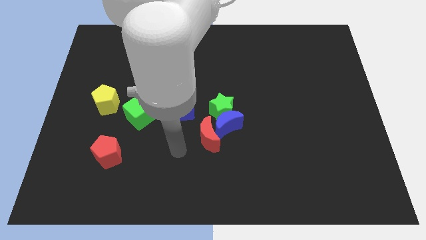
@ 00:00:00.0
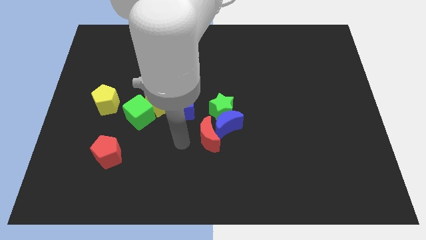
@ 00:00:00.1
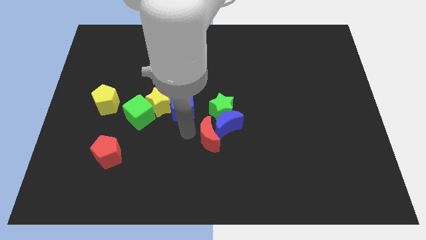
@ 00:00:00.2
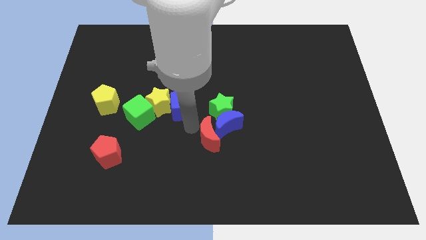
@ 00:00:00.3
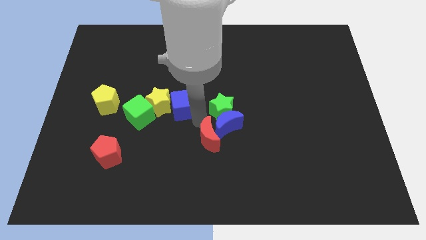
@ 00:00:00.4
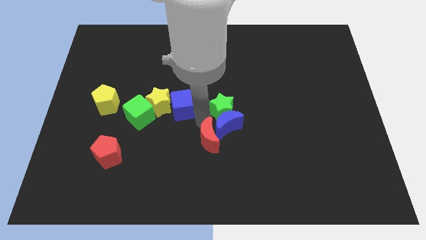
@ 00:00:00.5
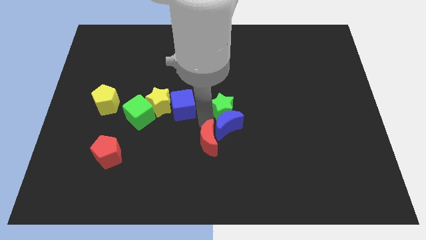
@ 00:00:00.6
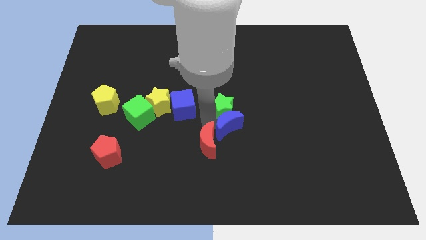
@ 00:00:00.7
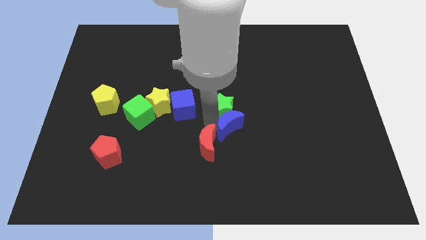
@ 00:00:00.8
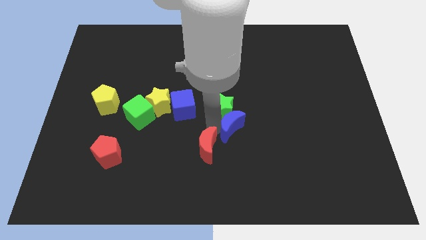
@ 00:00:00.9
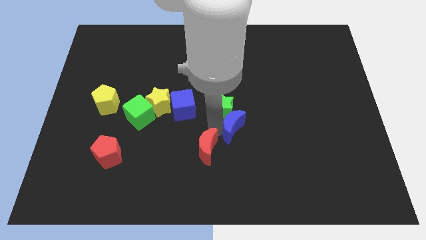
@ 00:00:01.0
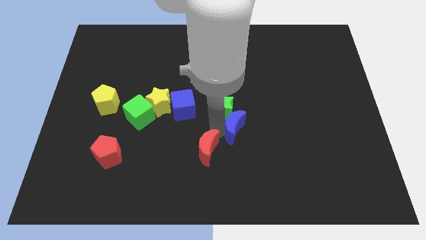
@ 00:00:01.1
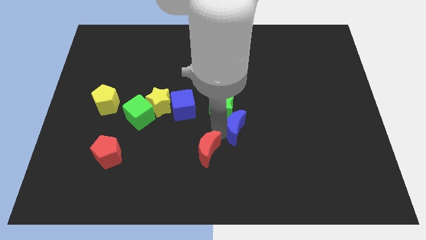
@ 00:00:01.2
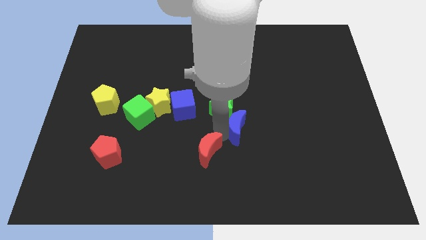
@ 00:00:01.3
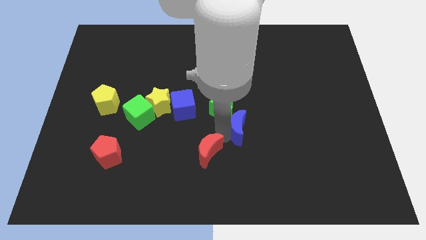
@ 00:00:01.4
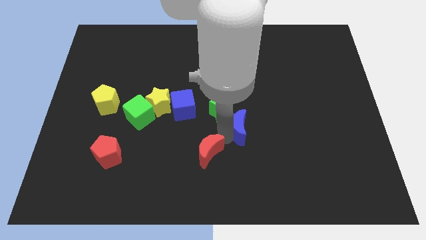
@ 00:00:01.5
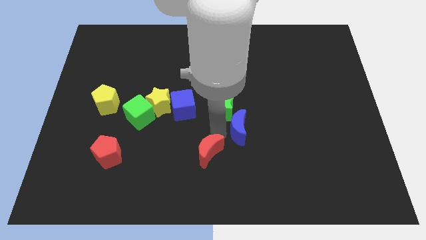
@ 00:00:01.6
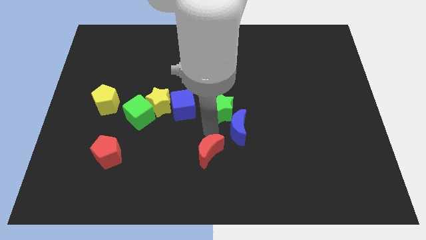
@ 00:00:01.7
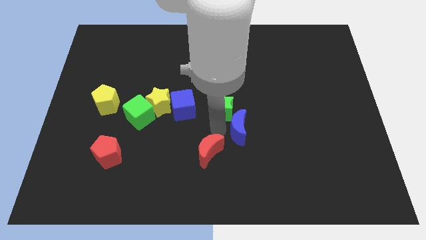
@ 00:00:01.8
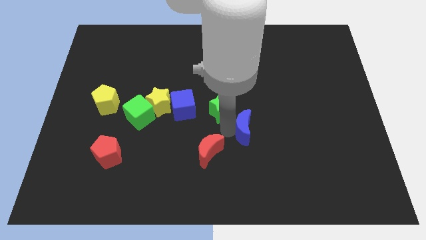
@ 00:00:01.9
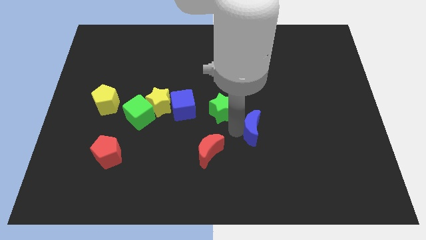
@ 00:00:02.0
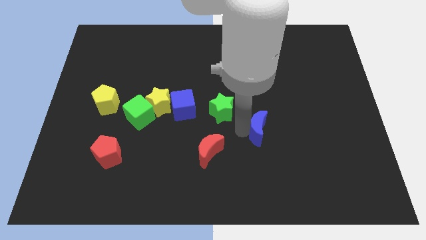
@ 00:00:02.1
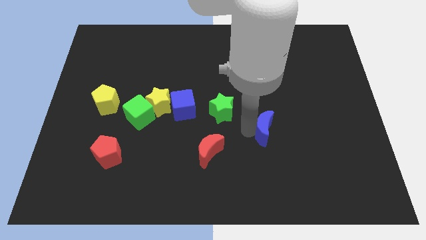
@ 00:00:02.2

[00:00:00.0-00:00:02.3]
move the blue moon away from the green star and red moon

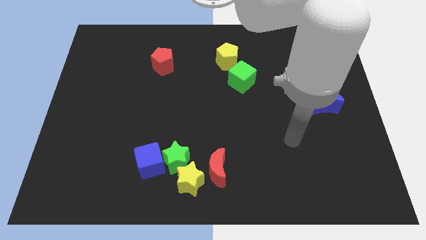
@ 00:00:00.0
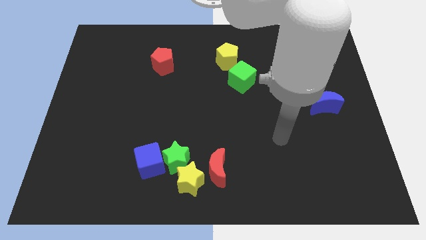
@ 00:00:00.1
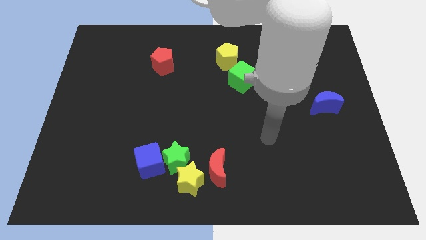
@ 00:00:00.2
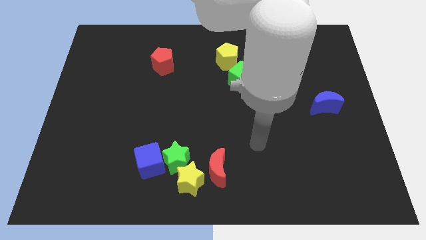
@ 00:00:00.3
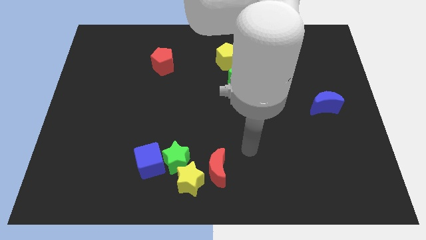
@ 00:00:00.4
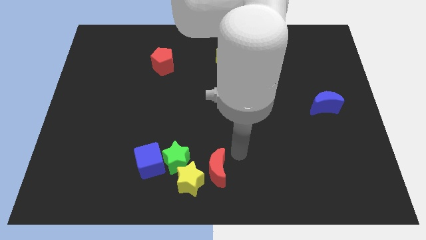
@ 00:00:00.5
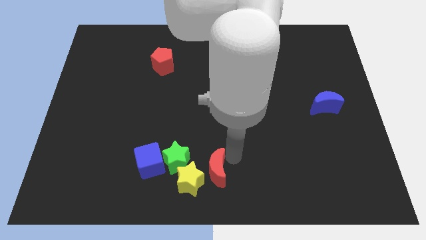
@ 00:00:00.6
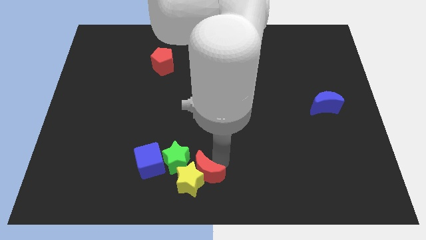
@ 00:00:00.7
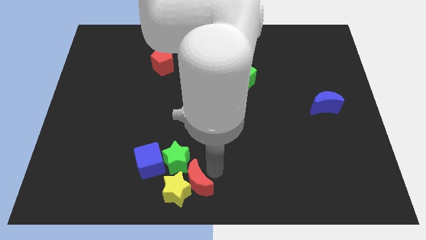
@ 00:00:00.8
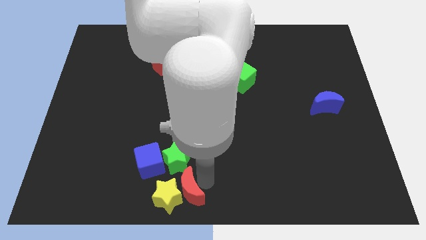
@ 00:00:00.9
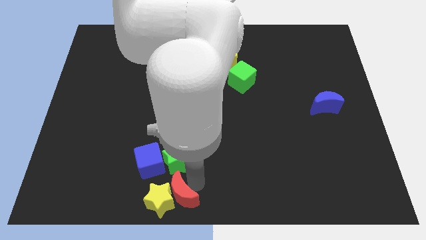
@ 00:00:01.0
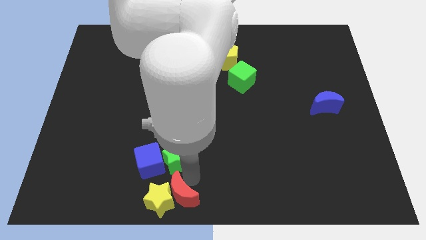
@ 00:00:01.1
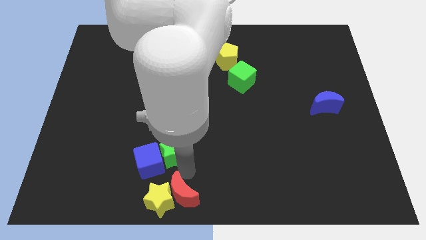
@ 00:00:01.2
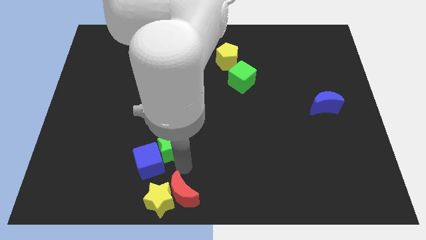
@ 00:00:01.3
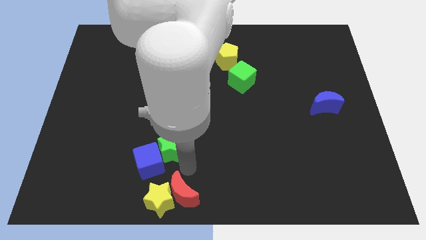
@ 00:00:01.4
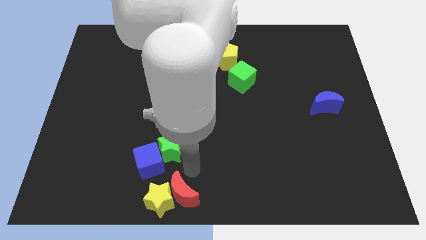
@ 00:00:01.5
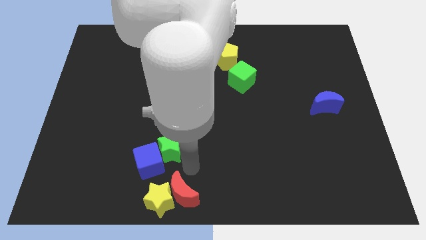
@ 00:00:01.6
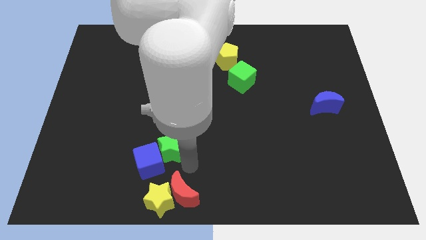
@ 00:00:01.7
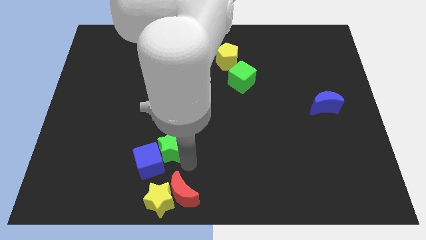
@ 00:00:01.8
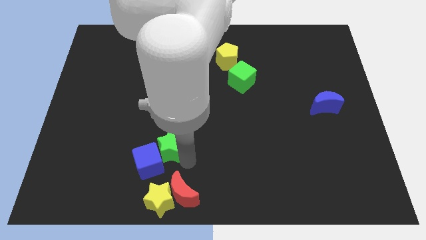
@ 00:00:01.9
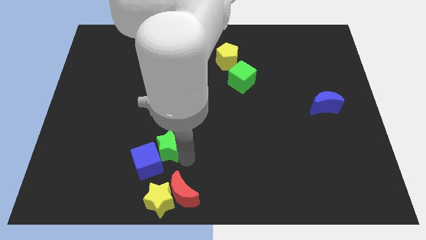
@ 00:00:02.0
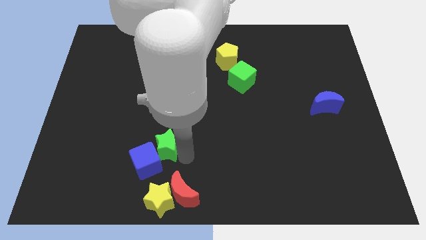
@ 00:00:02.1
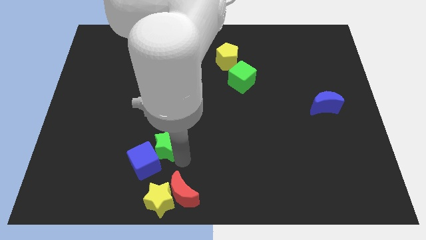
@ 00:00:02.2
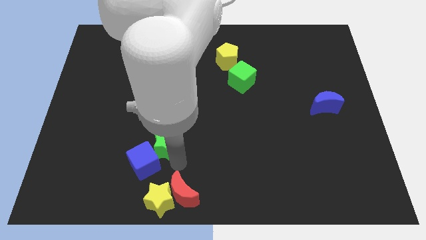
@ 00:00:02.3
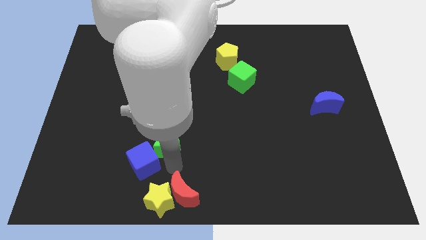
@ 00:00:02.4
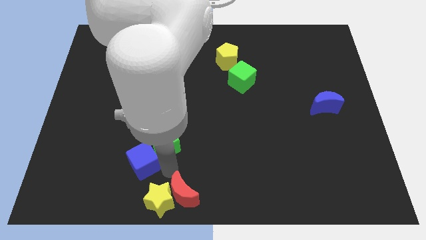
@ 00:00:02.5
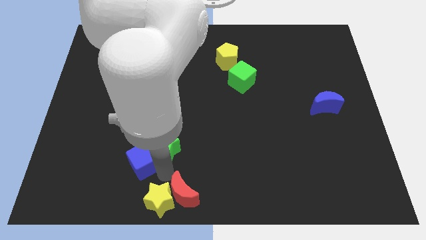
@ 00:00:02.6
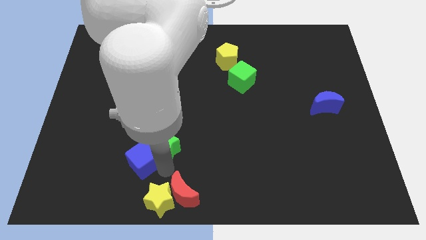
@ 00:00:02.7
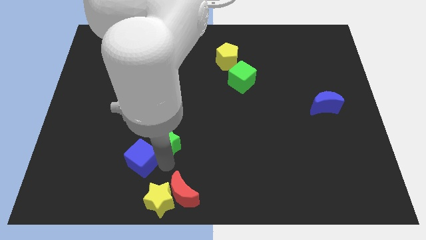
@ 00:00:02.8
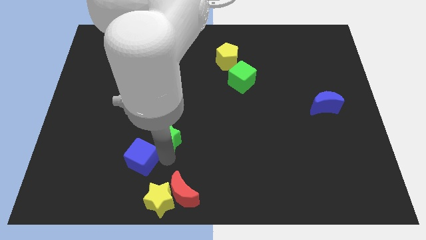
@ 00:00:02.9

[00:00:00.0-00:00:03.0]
pull the green star apart from the clump

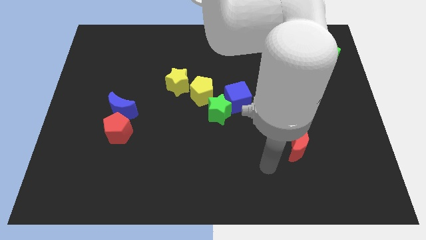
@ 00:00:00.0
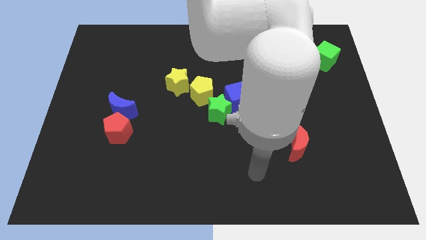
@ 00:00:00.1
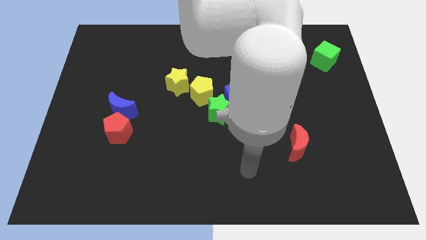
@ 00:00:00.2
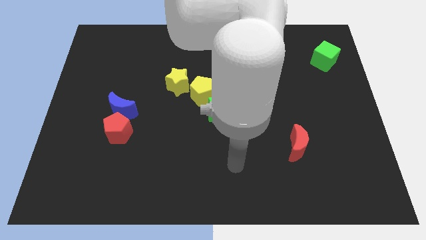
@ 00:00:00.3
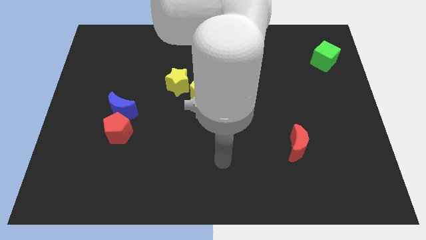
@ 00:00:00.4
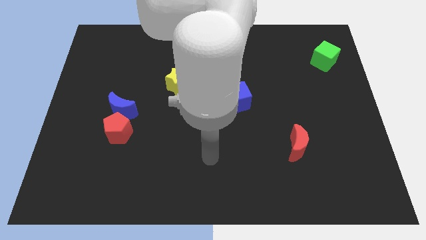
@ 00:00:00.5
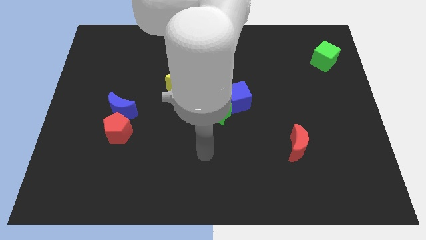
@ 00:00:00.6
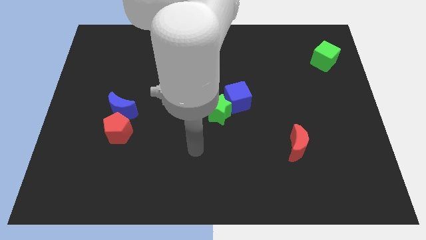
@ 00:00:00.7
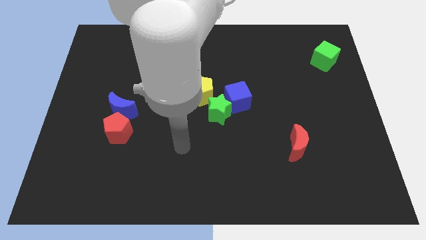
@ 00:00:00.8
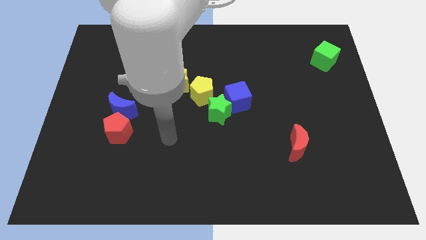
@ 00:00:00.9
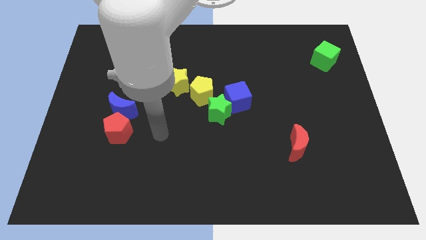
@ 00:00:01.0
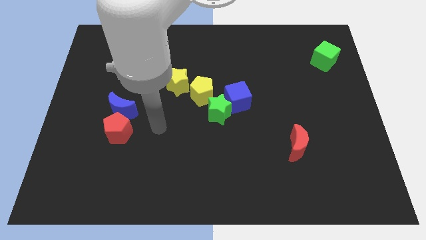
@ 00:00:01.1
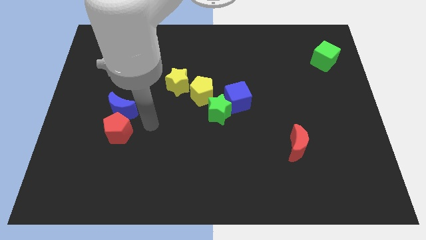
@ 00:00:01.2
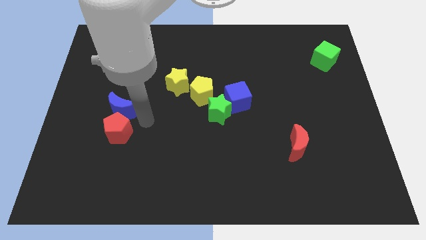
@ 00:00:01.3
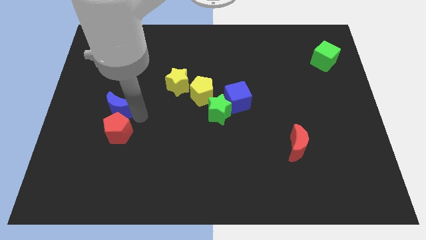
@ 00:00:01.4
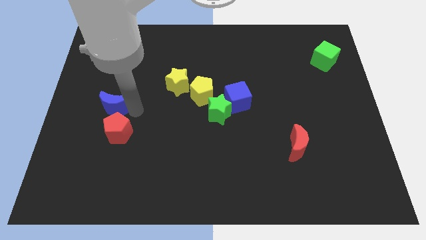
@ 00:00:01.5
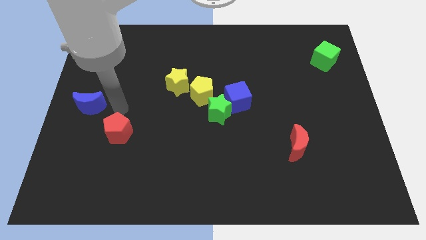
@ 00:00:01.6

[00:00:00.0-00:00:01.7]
move the red pentagon away from the blue moon

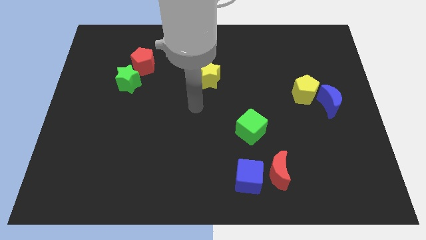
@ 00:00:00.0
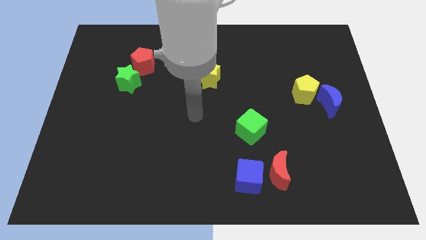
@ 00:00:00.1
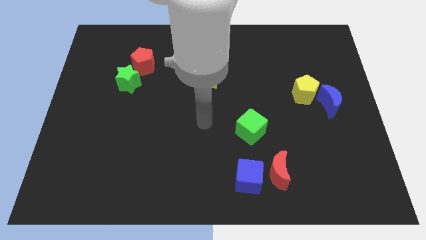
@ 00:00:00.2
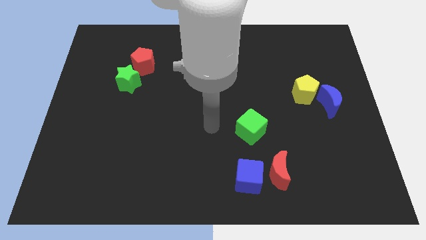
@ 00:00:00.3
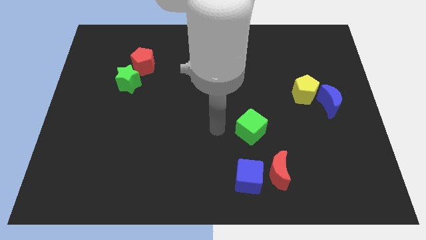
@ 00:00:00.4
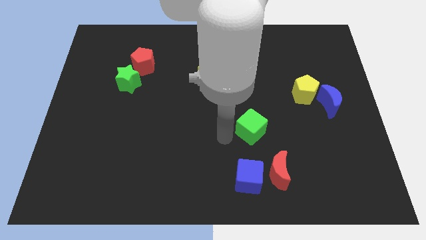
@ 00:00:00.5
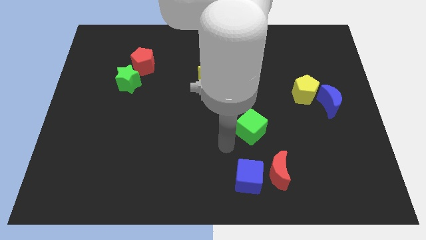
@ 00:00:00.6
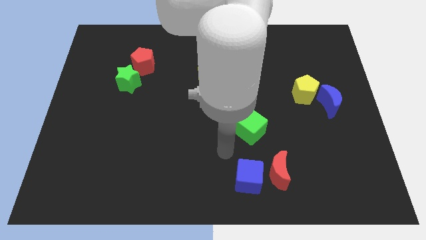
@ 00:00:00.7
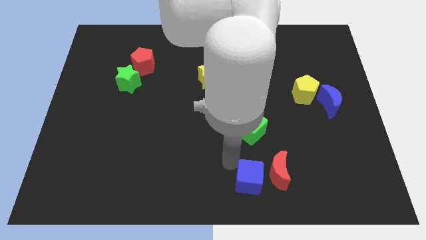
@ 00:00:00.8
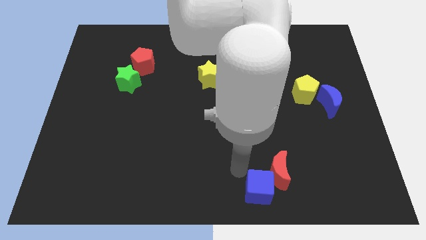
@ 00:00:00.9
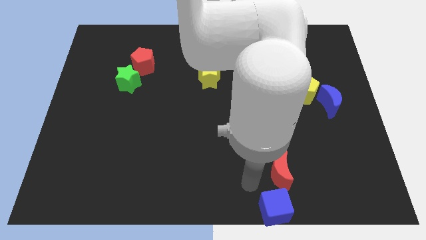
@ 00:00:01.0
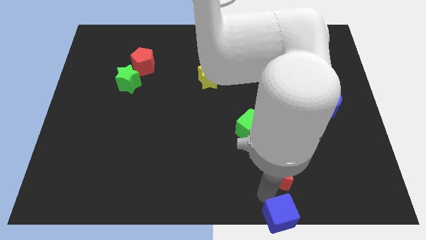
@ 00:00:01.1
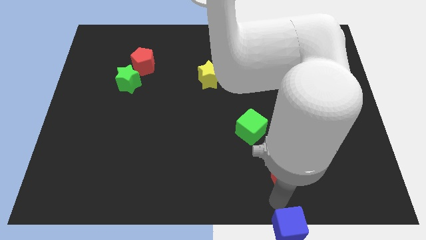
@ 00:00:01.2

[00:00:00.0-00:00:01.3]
move the red moon away from the blue cube

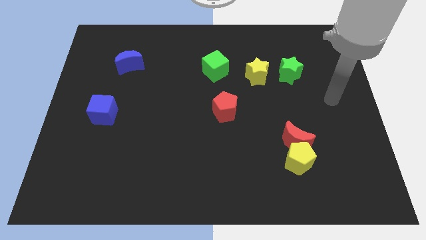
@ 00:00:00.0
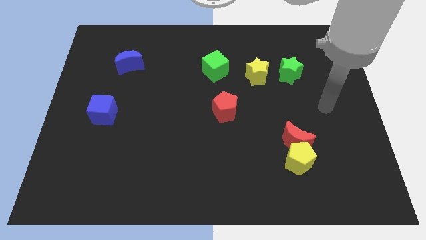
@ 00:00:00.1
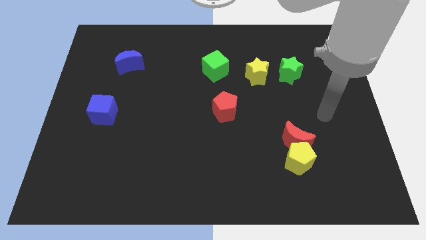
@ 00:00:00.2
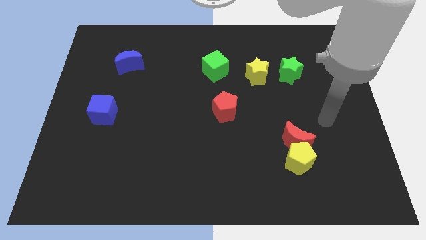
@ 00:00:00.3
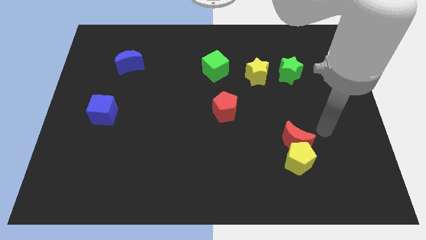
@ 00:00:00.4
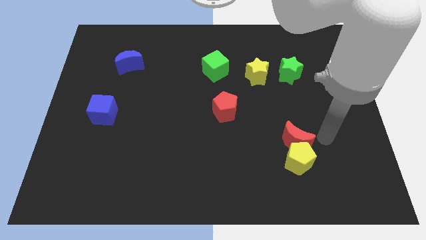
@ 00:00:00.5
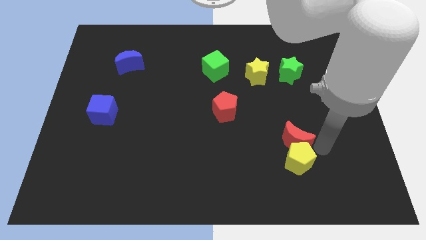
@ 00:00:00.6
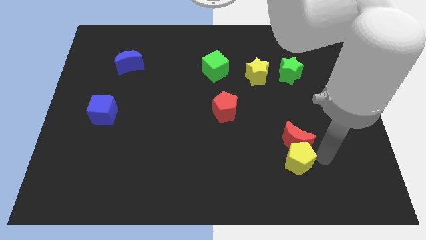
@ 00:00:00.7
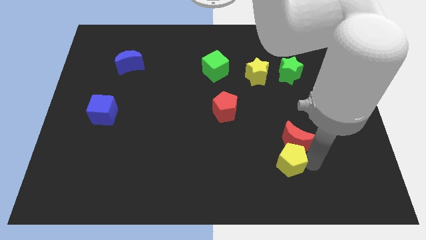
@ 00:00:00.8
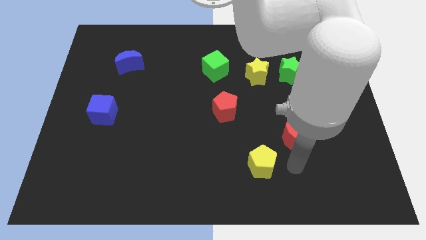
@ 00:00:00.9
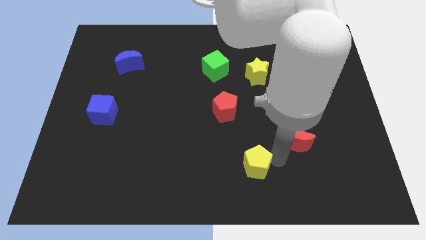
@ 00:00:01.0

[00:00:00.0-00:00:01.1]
separate the red moon from the yellow pentagon
